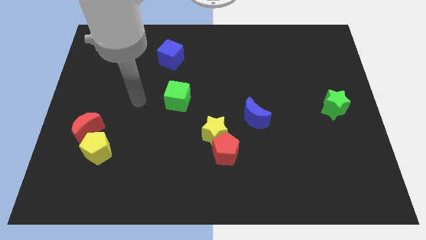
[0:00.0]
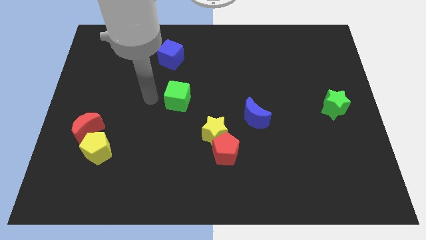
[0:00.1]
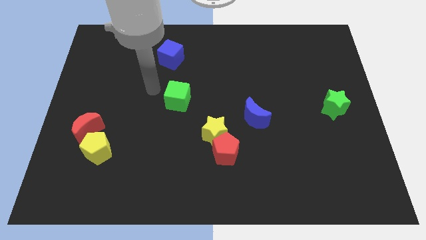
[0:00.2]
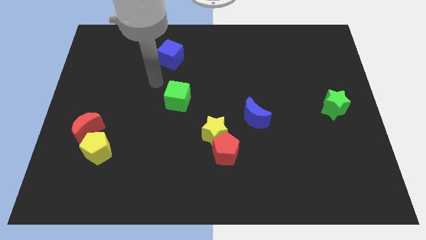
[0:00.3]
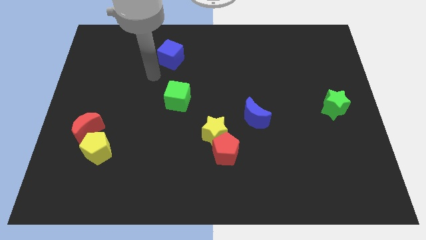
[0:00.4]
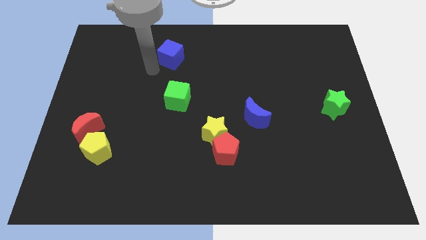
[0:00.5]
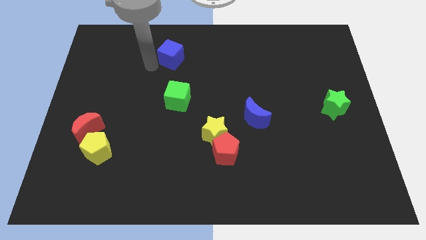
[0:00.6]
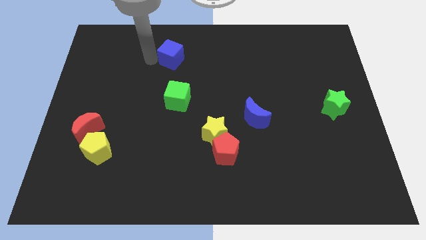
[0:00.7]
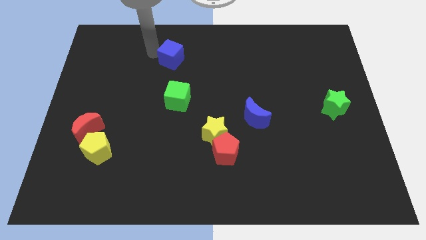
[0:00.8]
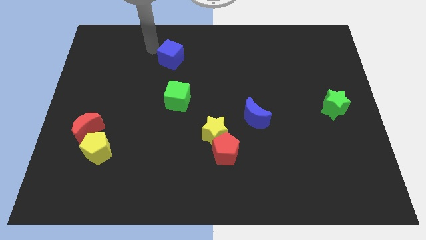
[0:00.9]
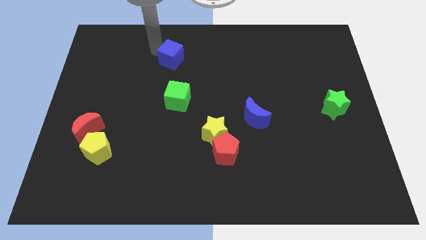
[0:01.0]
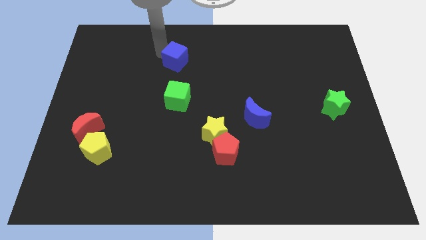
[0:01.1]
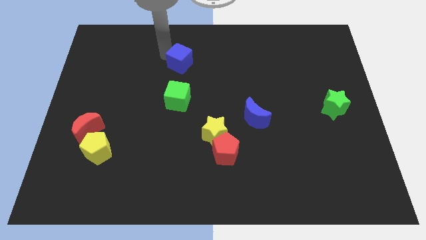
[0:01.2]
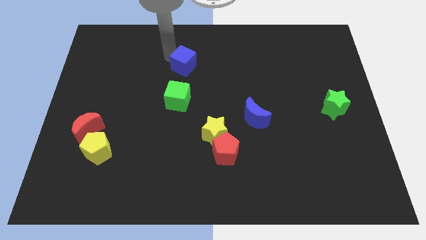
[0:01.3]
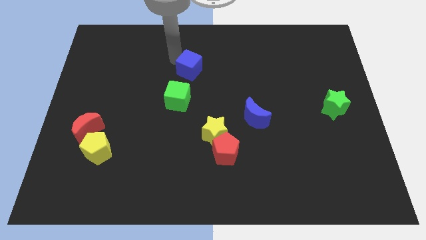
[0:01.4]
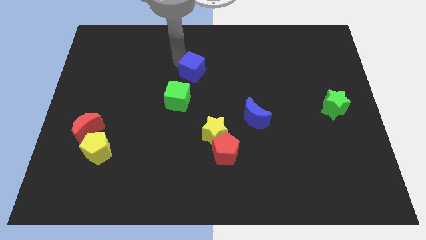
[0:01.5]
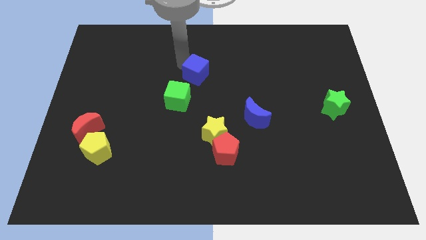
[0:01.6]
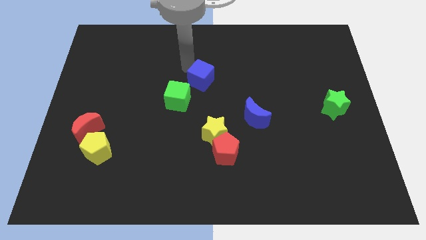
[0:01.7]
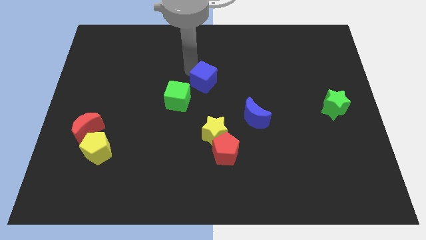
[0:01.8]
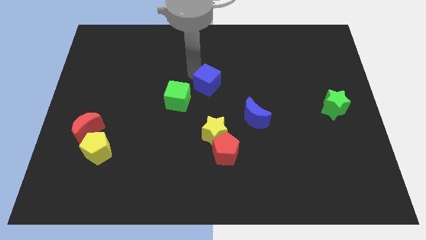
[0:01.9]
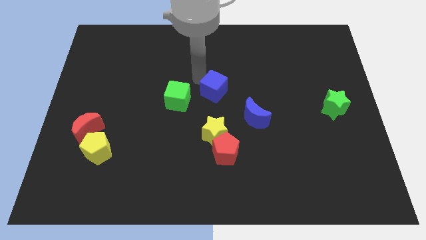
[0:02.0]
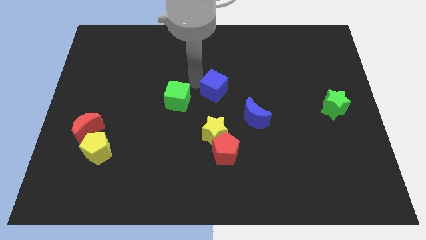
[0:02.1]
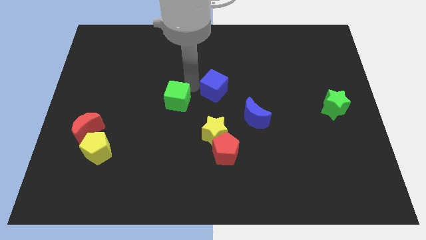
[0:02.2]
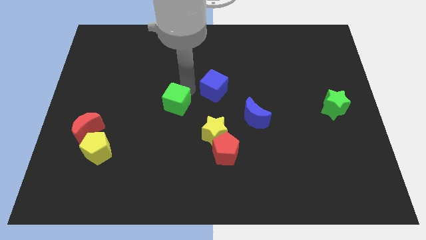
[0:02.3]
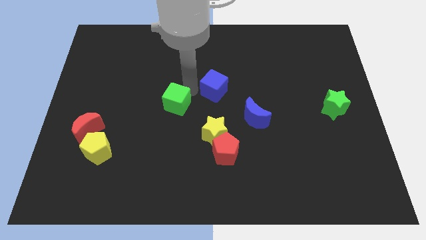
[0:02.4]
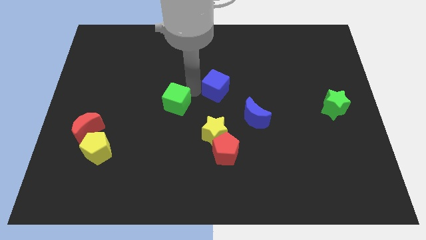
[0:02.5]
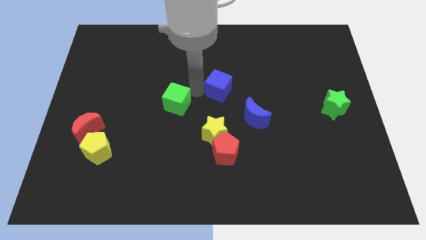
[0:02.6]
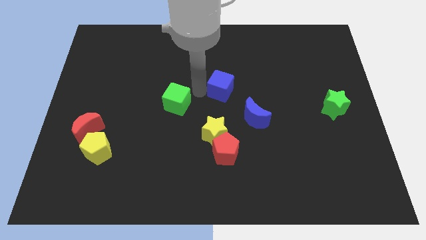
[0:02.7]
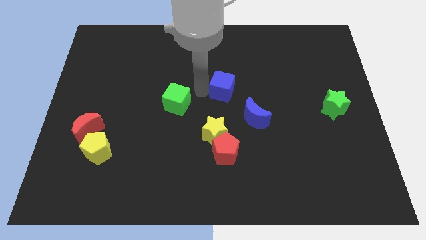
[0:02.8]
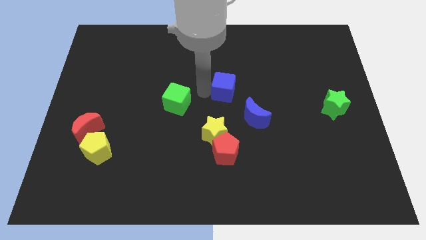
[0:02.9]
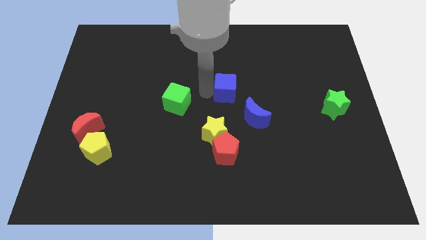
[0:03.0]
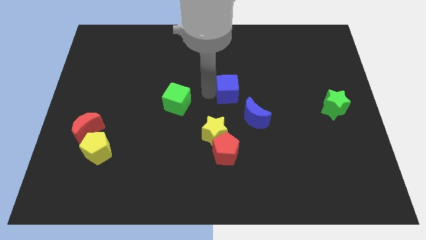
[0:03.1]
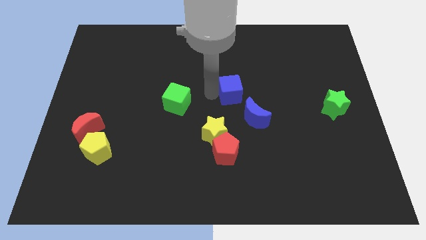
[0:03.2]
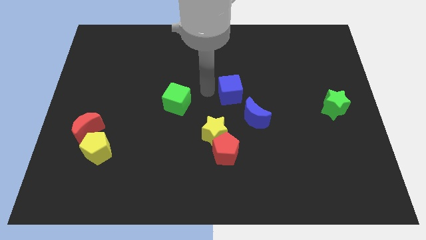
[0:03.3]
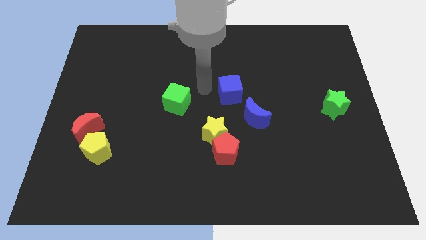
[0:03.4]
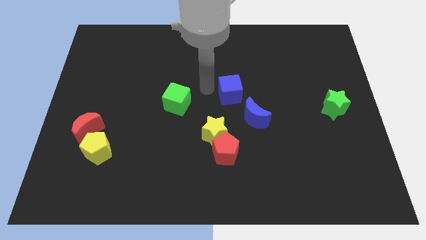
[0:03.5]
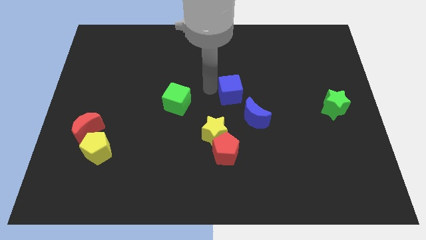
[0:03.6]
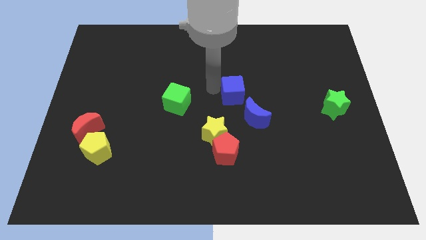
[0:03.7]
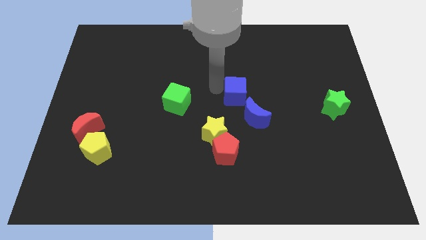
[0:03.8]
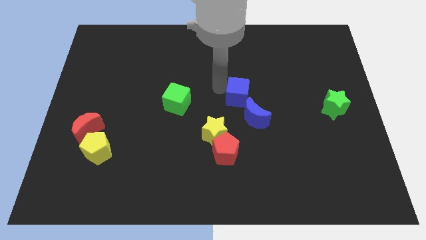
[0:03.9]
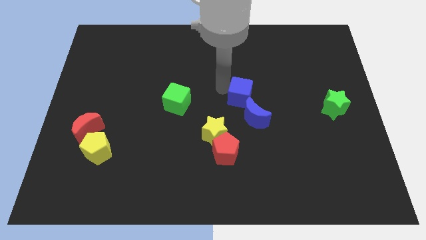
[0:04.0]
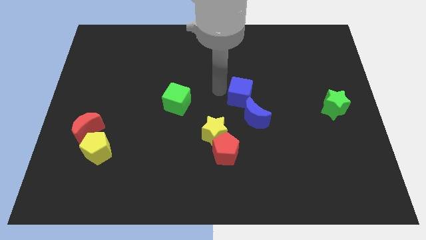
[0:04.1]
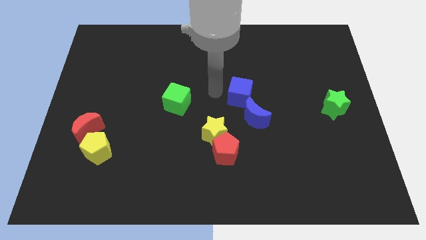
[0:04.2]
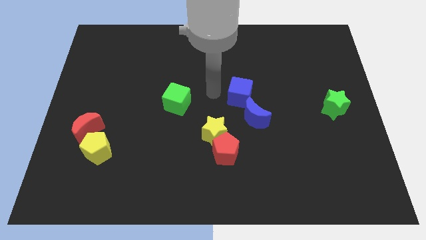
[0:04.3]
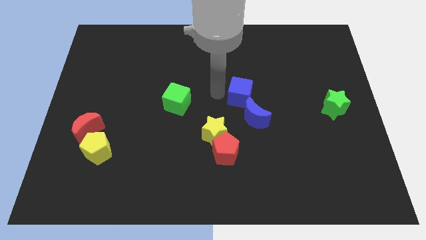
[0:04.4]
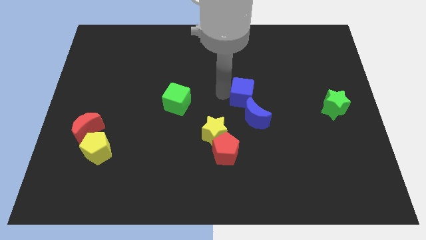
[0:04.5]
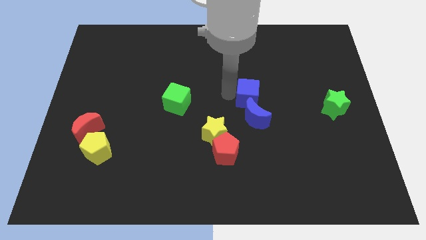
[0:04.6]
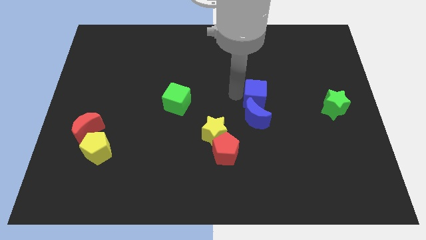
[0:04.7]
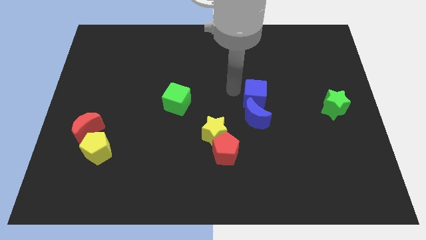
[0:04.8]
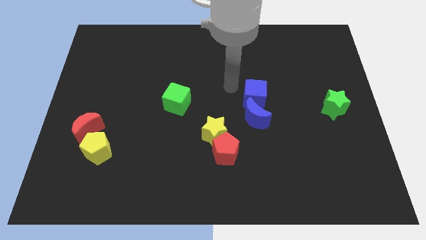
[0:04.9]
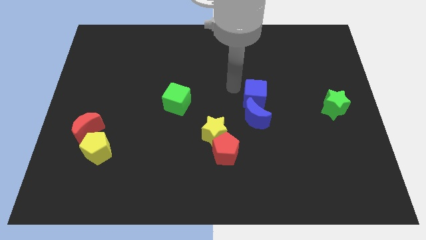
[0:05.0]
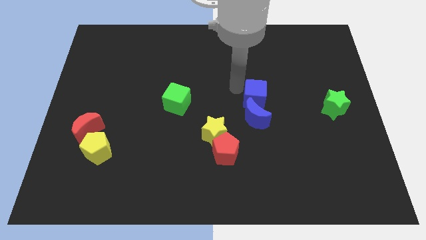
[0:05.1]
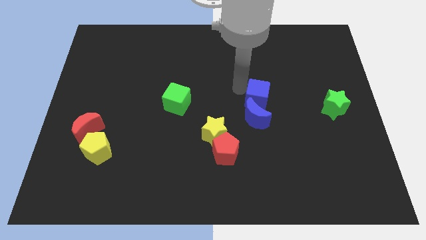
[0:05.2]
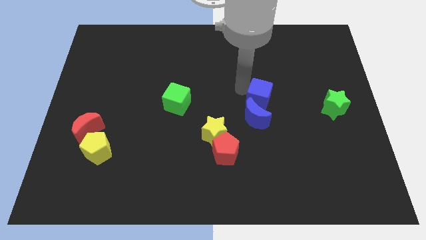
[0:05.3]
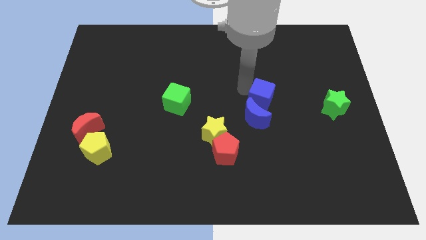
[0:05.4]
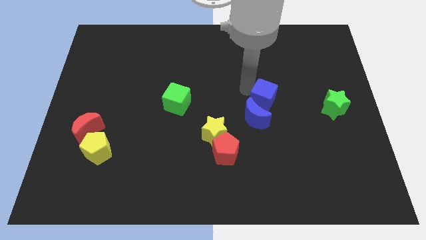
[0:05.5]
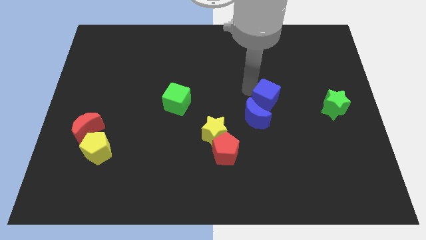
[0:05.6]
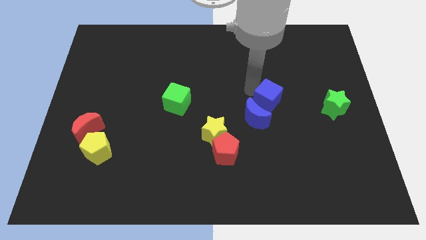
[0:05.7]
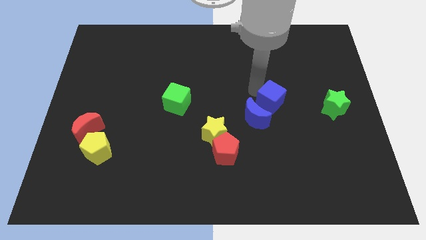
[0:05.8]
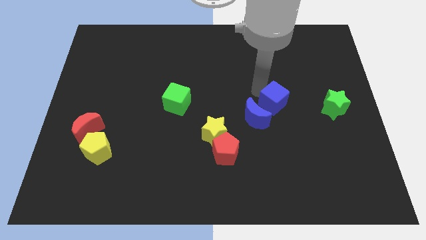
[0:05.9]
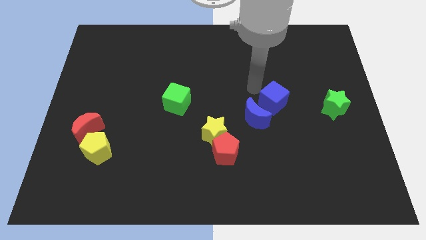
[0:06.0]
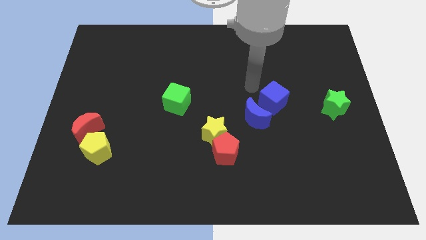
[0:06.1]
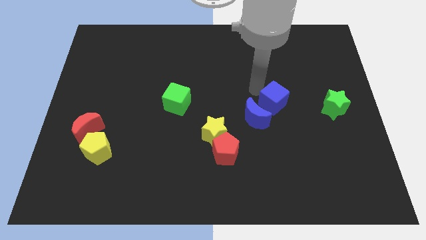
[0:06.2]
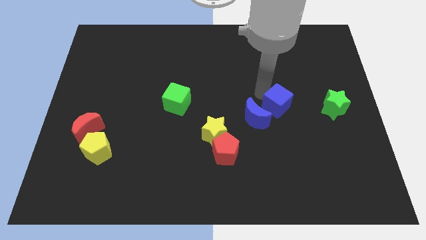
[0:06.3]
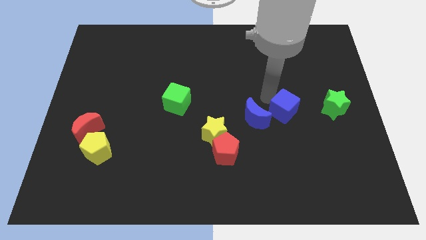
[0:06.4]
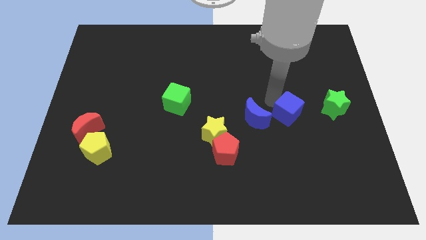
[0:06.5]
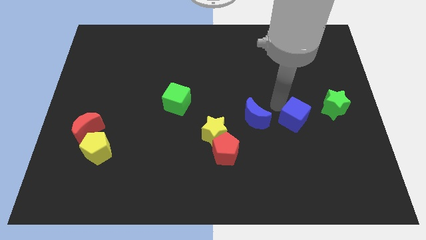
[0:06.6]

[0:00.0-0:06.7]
move the blue cube diagonally down and to the left of the green star

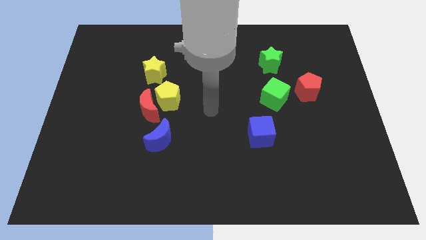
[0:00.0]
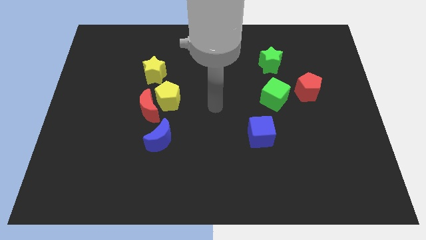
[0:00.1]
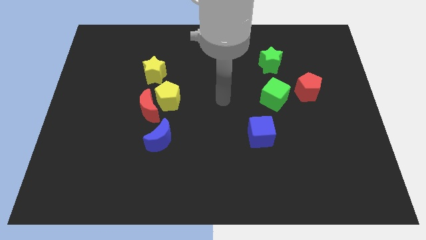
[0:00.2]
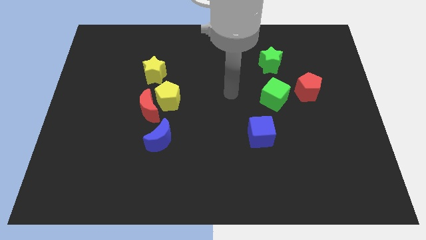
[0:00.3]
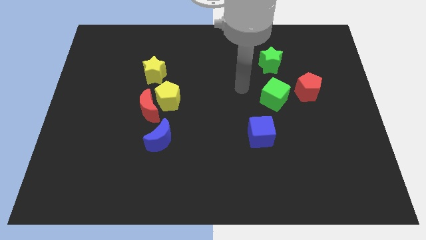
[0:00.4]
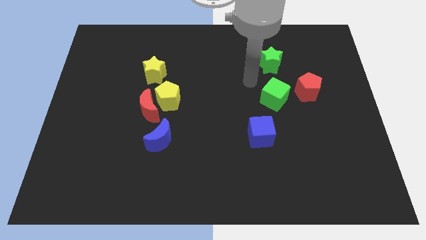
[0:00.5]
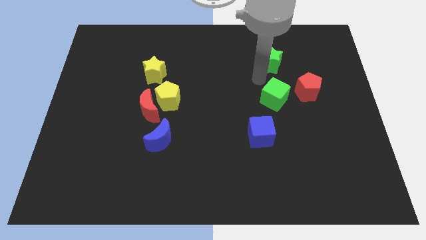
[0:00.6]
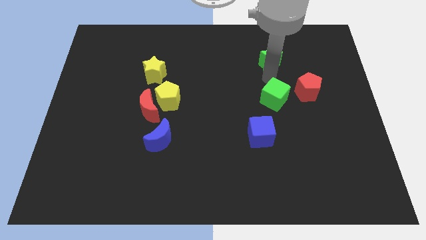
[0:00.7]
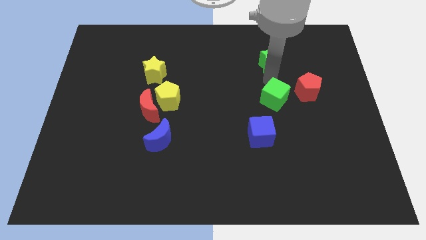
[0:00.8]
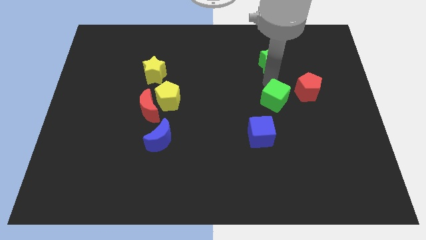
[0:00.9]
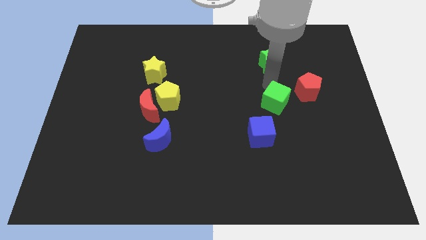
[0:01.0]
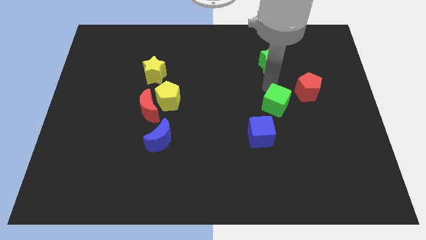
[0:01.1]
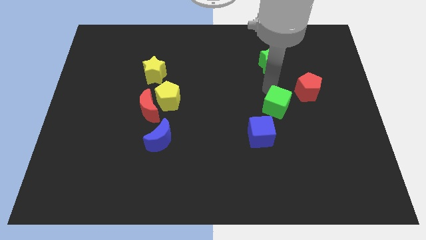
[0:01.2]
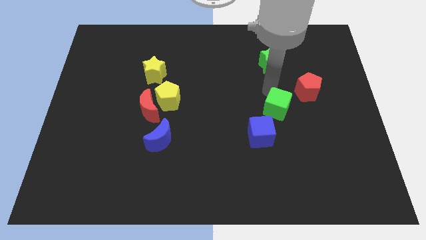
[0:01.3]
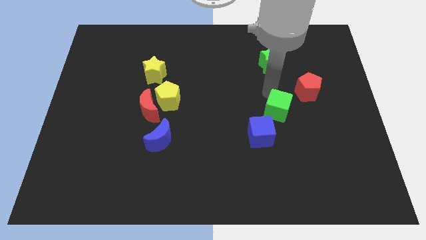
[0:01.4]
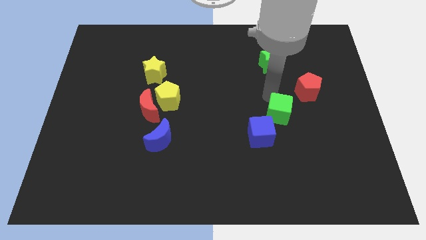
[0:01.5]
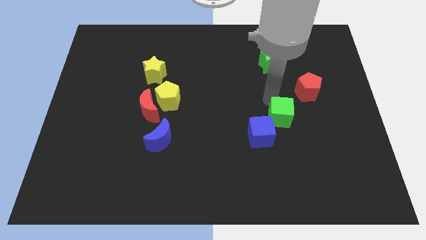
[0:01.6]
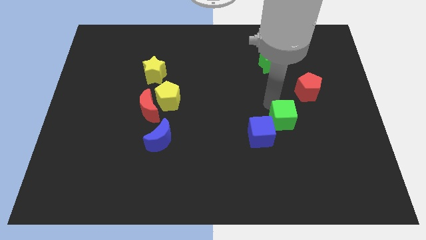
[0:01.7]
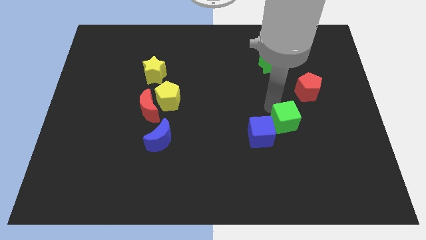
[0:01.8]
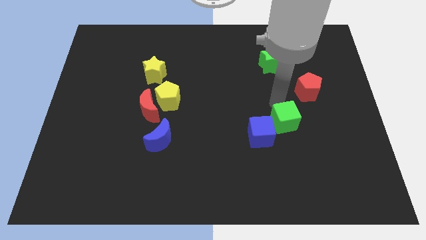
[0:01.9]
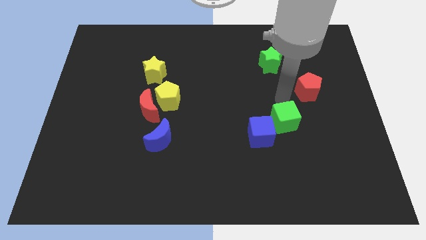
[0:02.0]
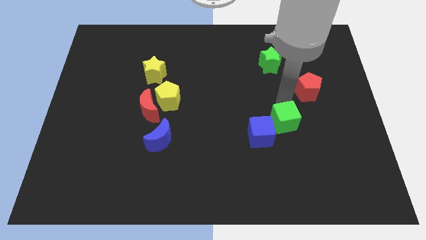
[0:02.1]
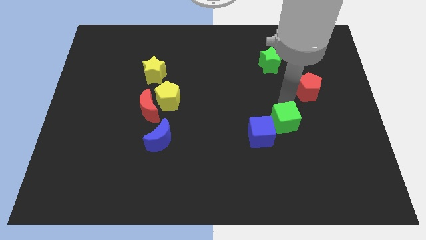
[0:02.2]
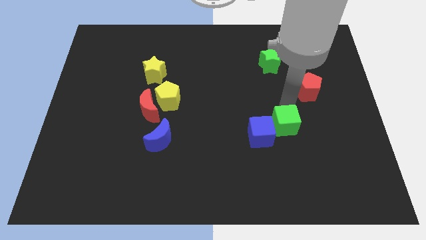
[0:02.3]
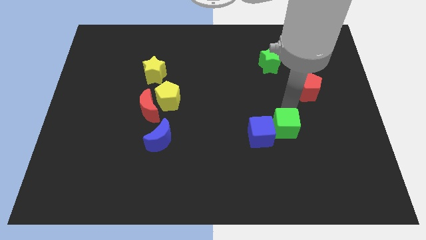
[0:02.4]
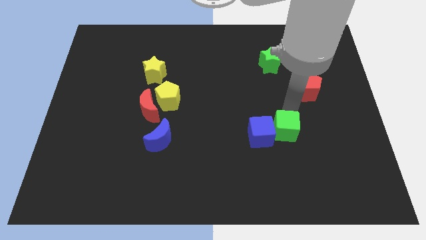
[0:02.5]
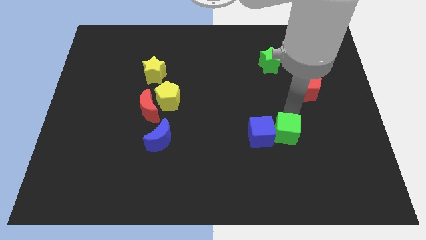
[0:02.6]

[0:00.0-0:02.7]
push the green cube to the bottom right of the blue cube
